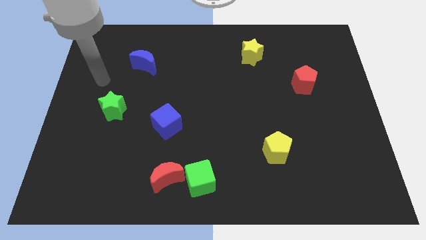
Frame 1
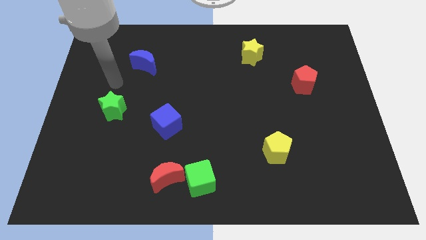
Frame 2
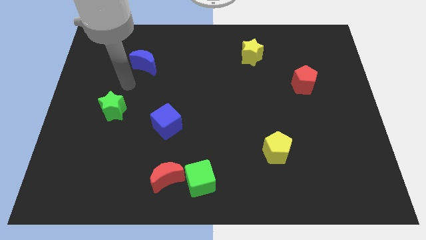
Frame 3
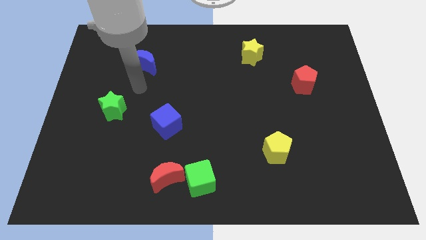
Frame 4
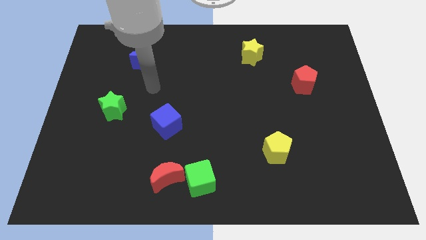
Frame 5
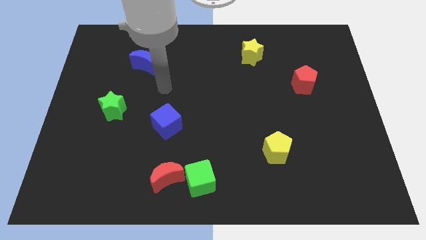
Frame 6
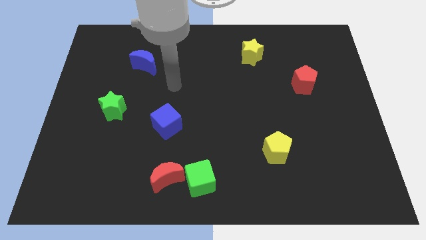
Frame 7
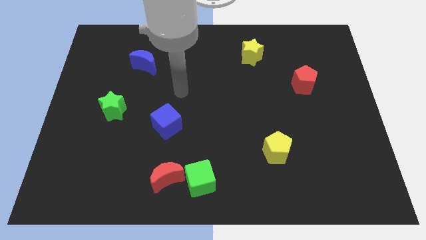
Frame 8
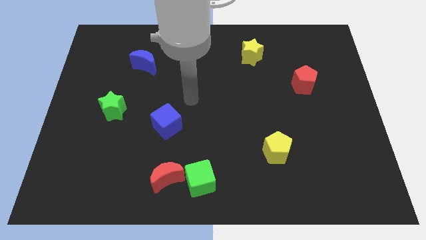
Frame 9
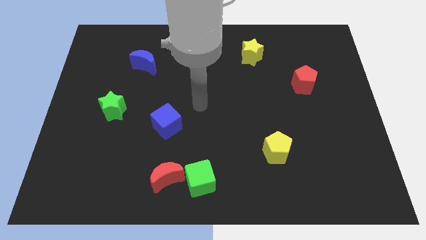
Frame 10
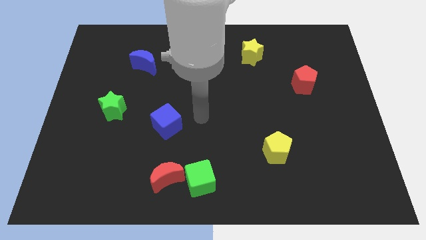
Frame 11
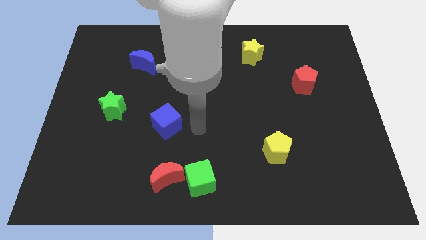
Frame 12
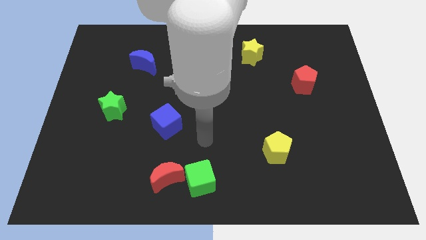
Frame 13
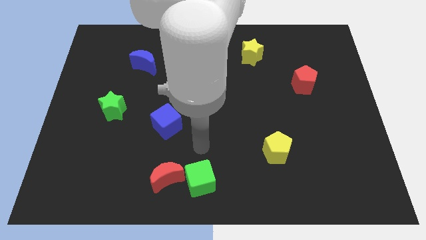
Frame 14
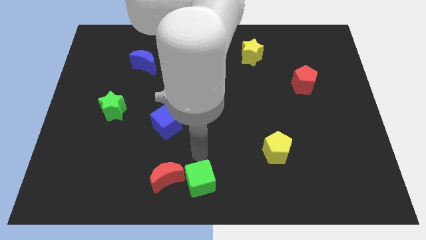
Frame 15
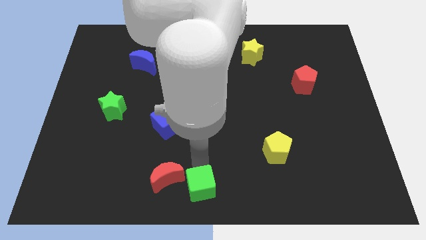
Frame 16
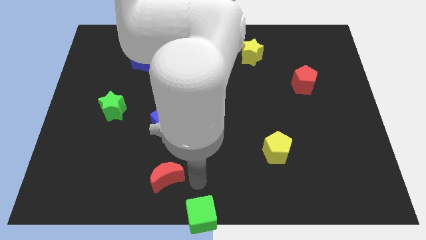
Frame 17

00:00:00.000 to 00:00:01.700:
move the red moon away from the green cube

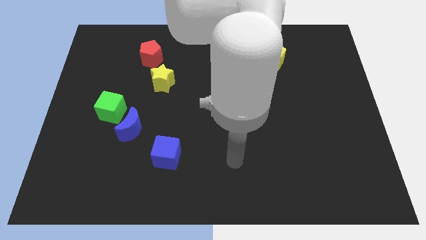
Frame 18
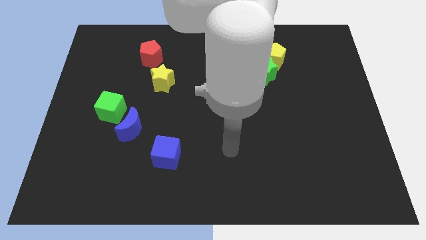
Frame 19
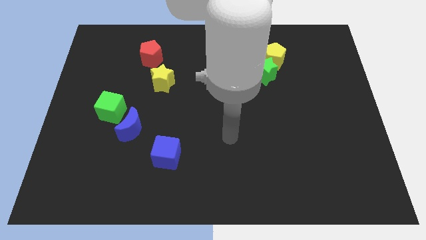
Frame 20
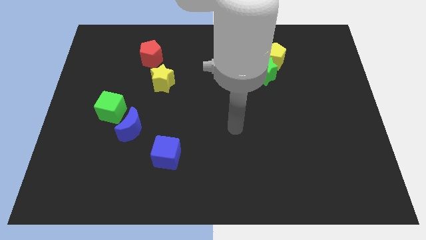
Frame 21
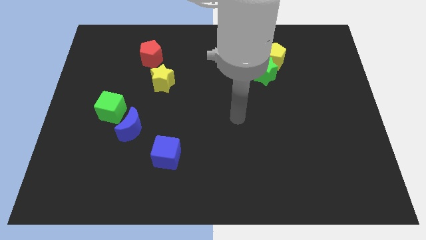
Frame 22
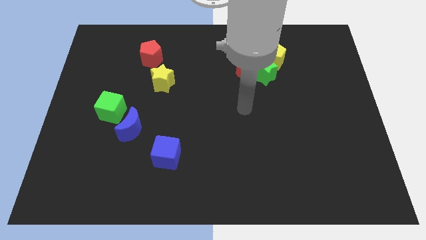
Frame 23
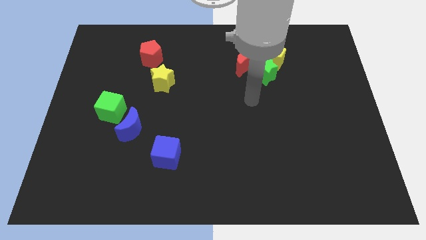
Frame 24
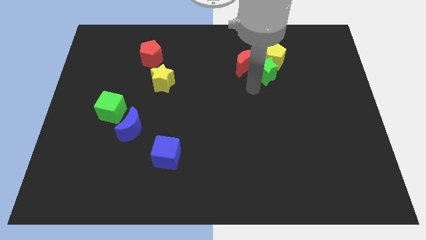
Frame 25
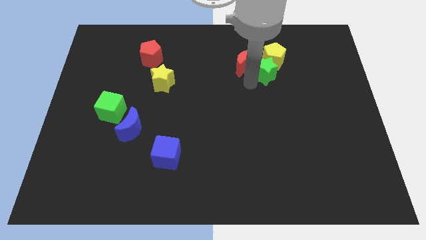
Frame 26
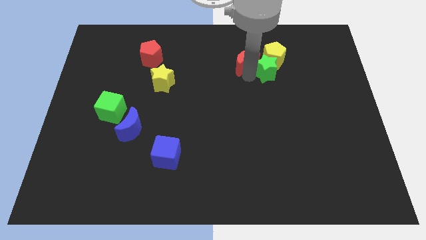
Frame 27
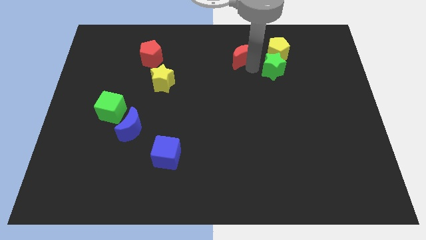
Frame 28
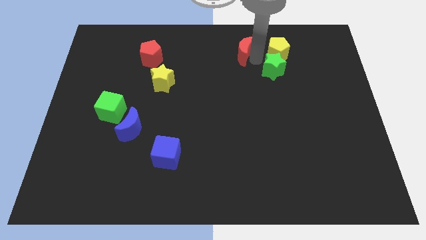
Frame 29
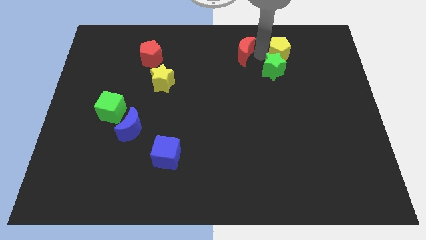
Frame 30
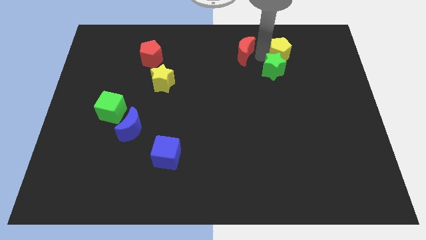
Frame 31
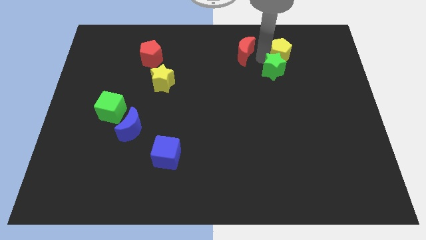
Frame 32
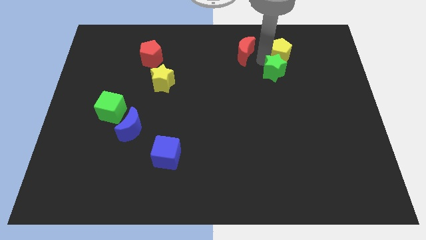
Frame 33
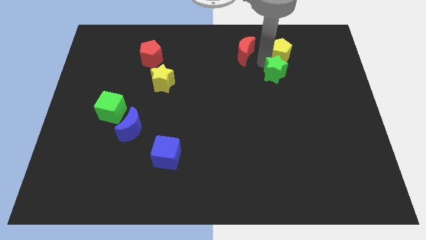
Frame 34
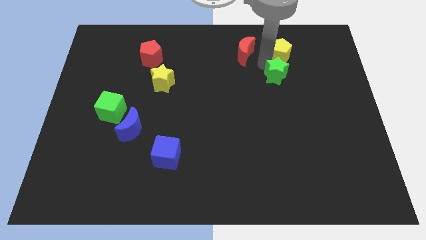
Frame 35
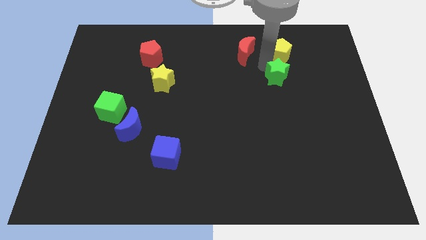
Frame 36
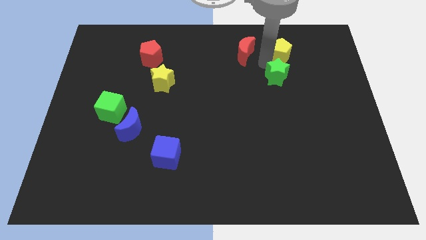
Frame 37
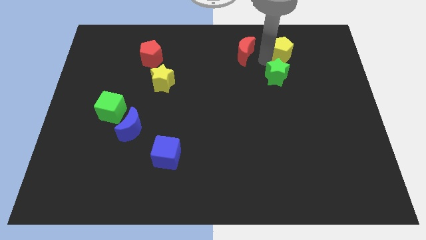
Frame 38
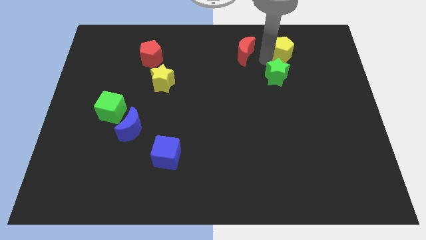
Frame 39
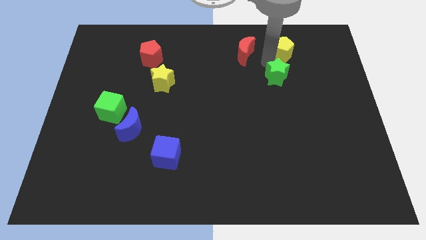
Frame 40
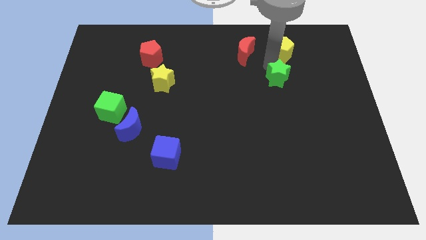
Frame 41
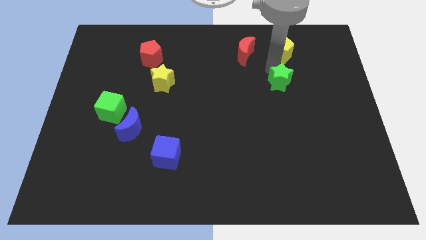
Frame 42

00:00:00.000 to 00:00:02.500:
pull the green star apart from the yellow pentagon and red moon

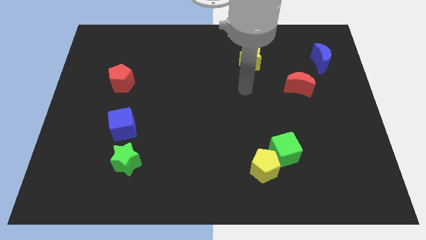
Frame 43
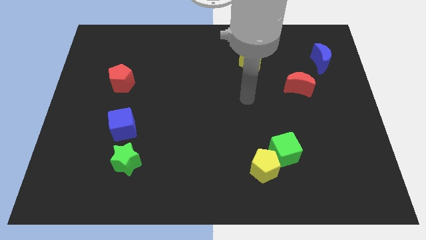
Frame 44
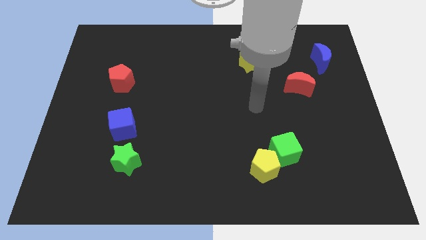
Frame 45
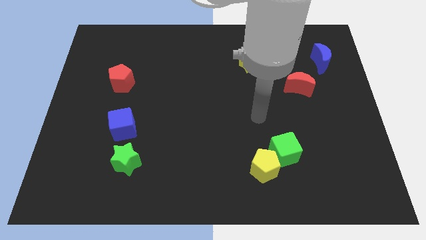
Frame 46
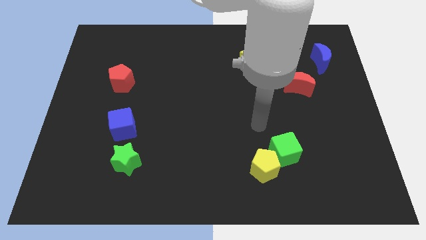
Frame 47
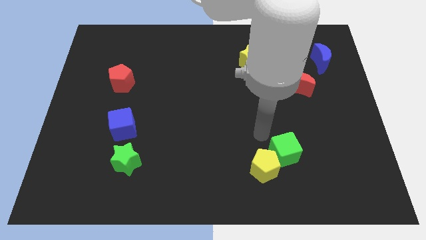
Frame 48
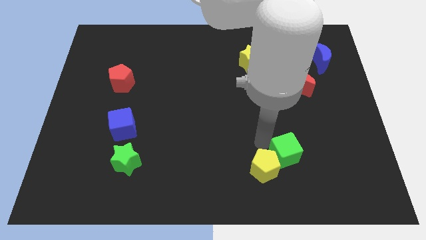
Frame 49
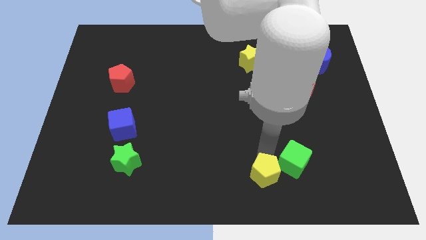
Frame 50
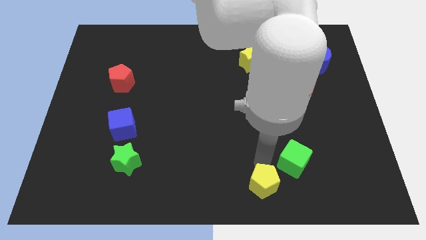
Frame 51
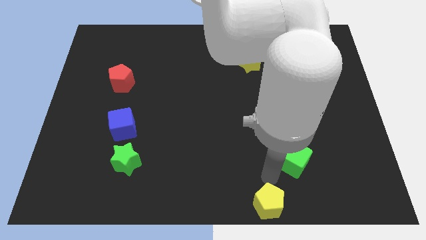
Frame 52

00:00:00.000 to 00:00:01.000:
separate the green cube from the yellow pentagon

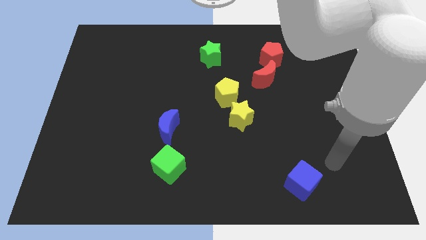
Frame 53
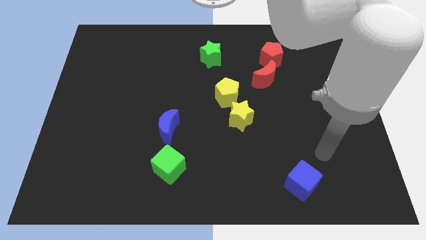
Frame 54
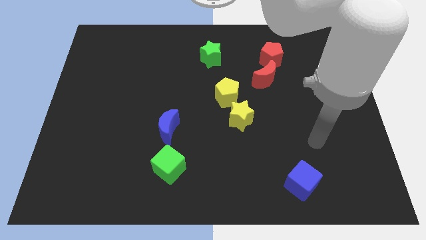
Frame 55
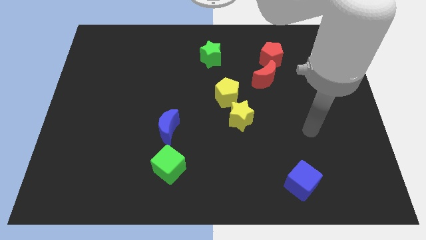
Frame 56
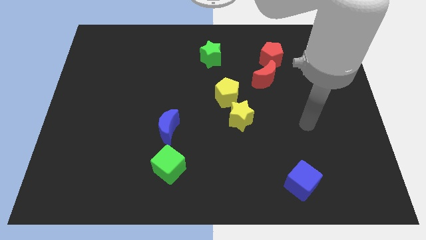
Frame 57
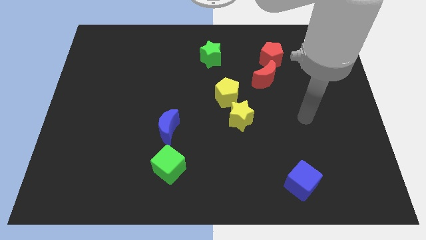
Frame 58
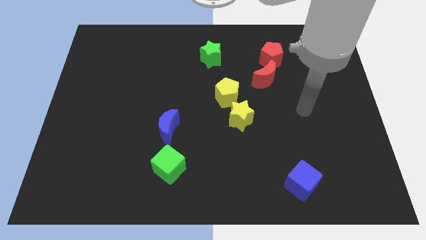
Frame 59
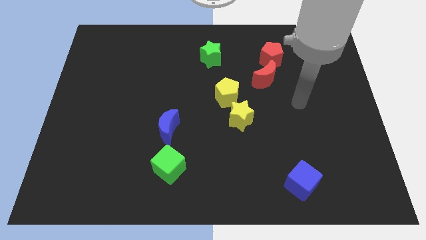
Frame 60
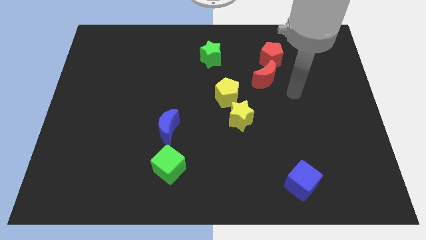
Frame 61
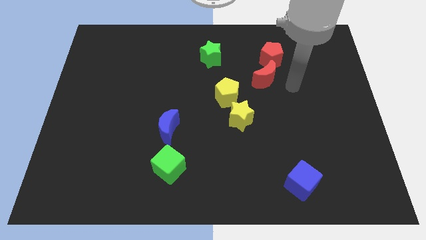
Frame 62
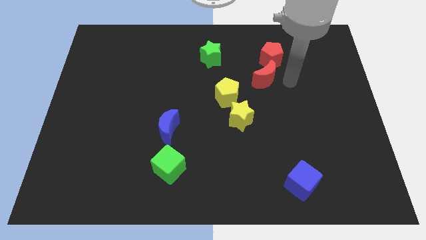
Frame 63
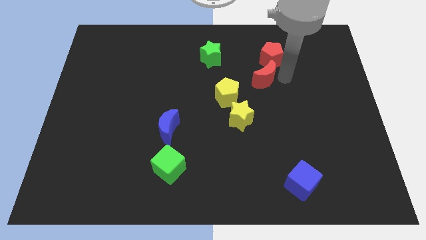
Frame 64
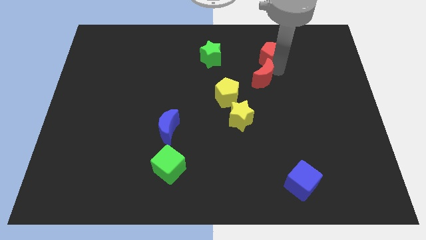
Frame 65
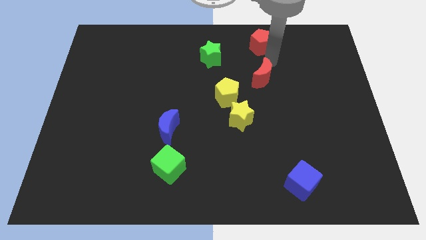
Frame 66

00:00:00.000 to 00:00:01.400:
pull the red moon apart from the red pentagon

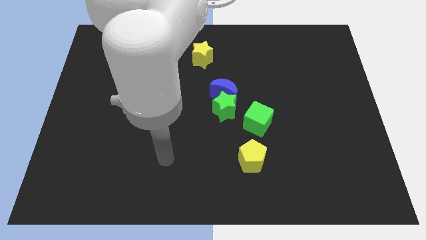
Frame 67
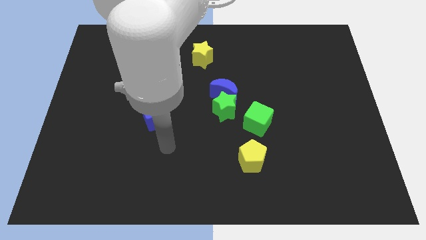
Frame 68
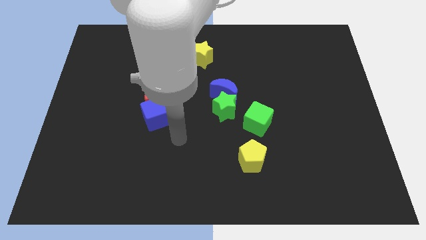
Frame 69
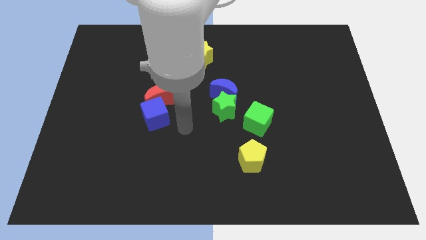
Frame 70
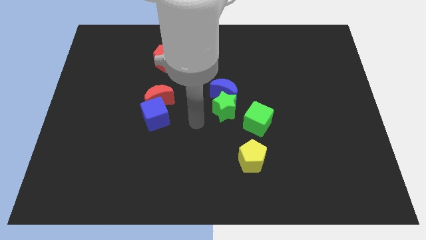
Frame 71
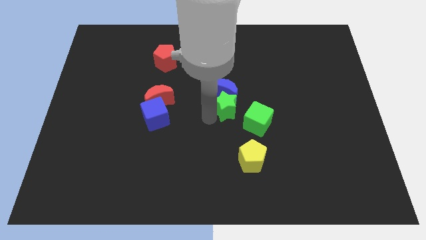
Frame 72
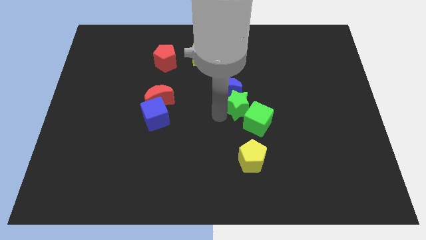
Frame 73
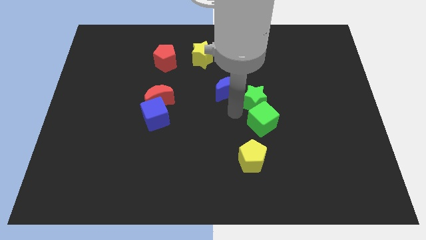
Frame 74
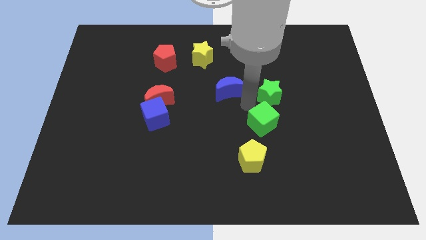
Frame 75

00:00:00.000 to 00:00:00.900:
separate the blue moon from the green star

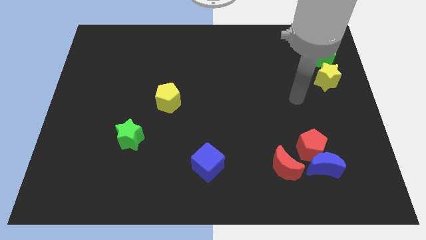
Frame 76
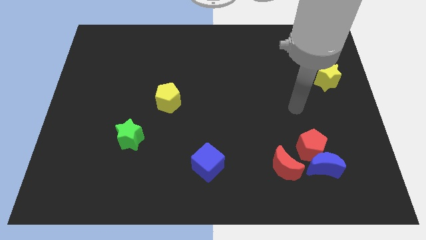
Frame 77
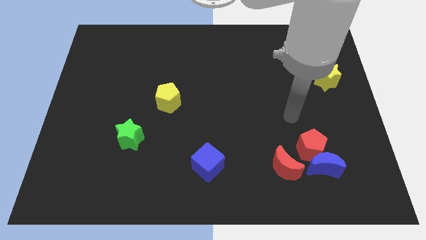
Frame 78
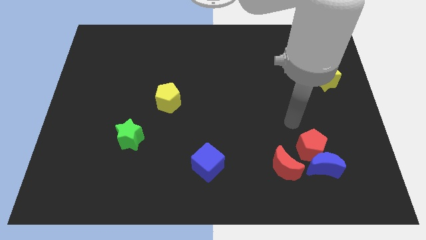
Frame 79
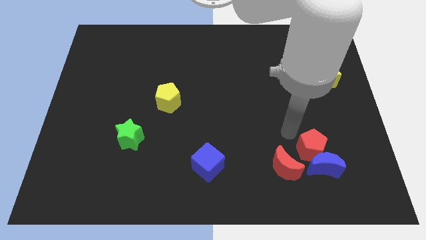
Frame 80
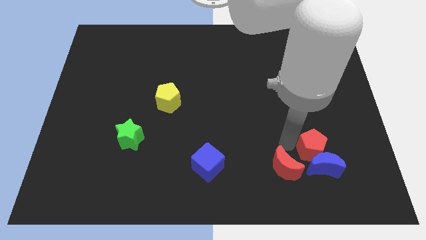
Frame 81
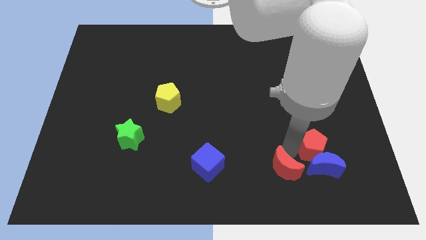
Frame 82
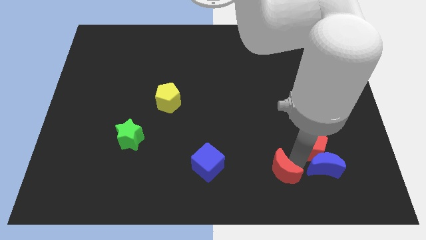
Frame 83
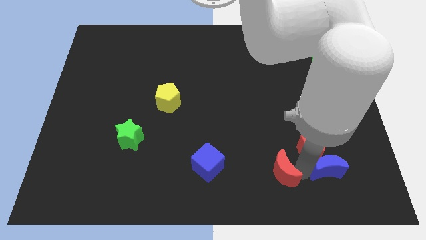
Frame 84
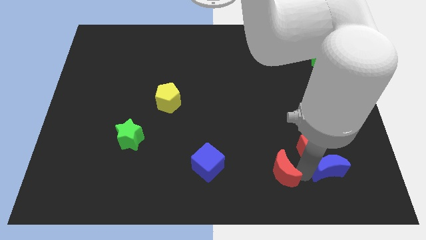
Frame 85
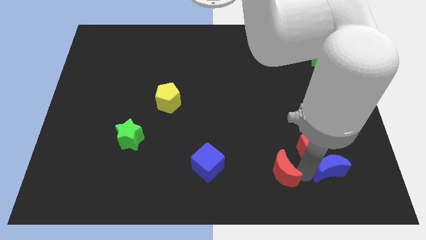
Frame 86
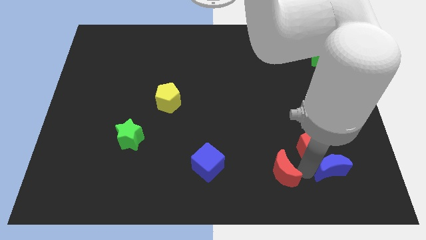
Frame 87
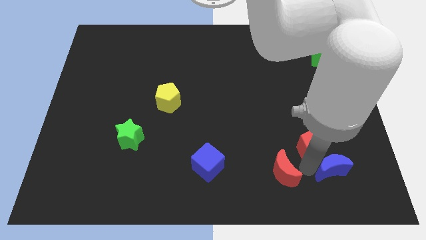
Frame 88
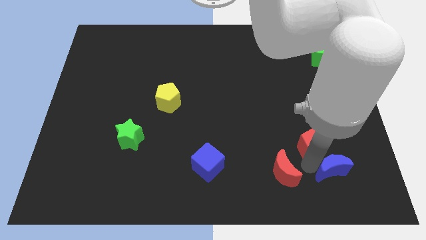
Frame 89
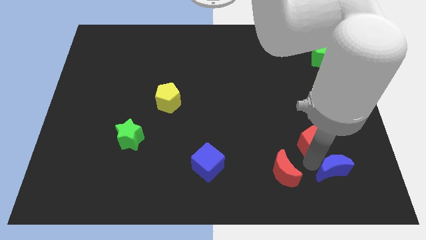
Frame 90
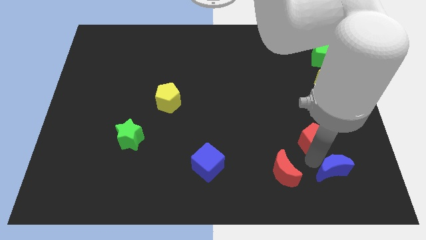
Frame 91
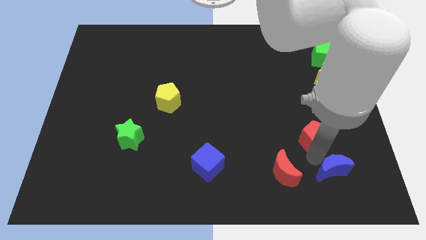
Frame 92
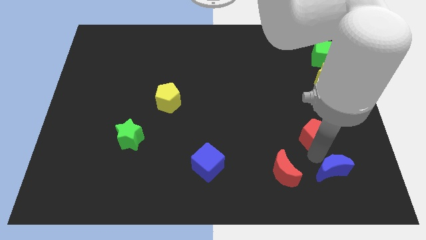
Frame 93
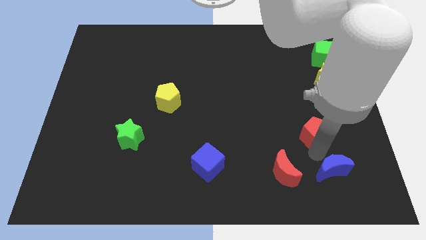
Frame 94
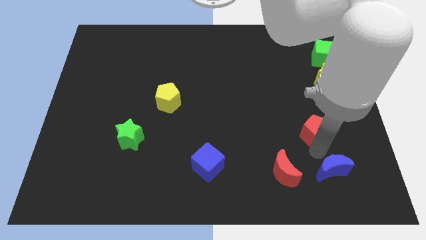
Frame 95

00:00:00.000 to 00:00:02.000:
separate the red pentagon from the blue moon and red moon
